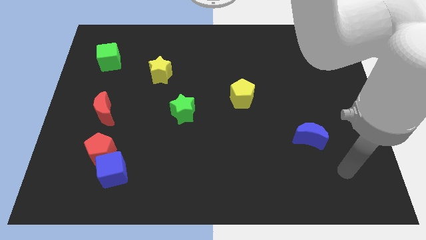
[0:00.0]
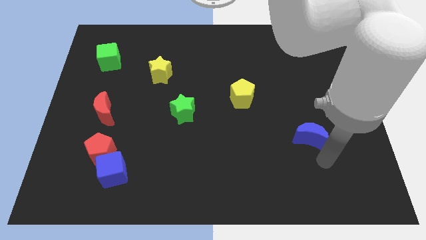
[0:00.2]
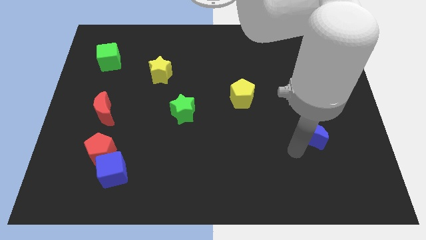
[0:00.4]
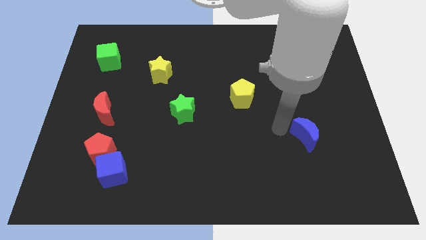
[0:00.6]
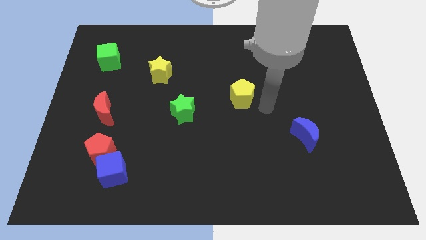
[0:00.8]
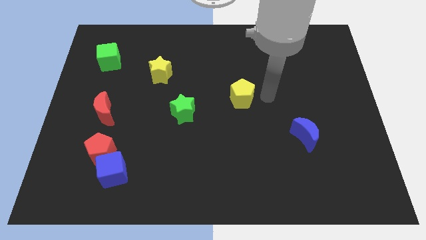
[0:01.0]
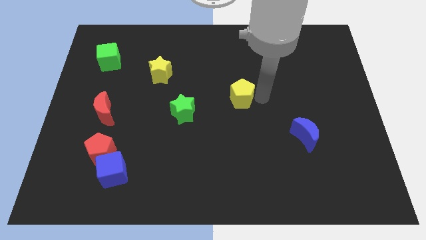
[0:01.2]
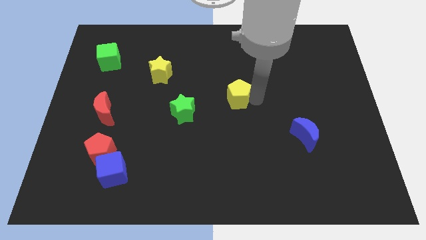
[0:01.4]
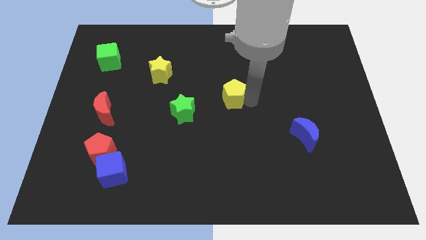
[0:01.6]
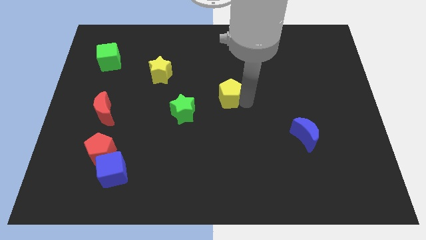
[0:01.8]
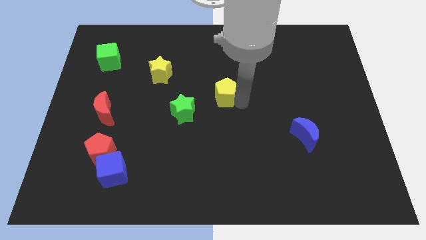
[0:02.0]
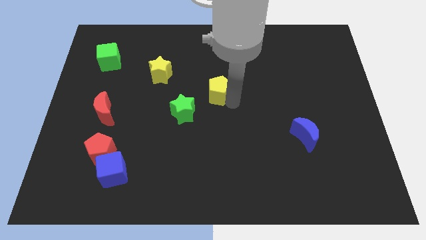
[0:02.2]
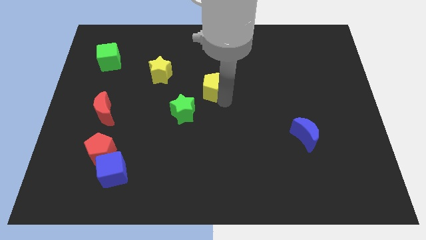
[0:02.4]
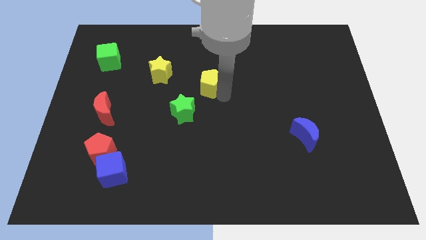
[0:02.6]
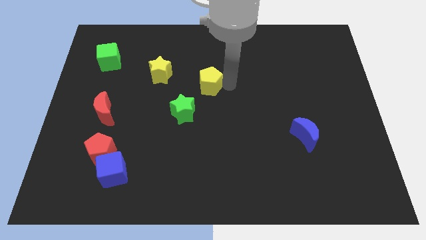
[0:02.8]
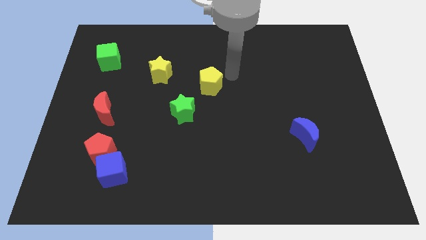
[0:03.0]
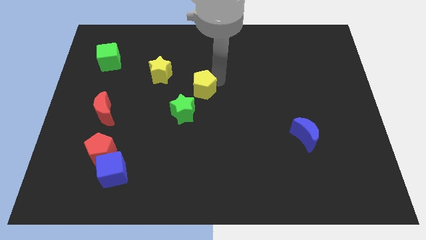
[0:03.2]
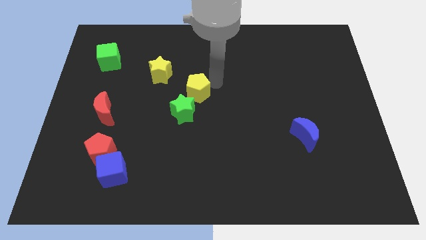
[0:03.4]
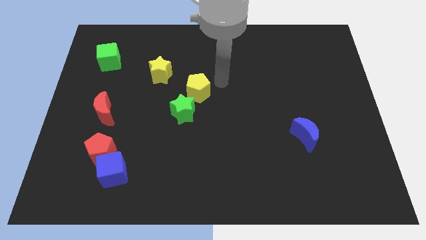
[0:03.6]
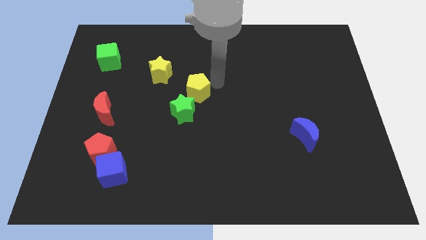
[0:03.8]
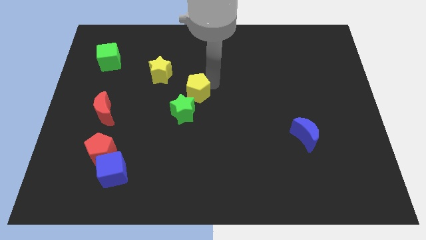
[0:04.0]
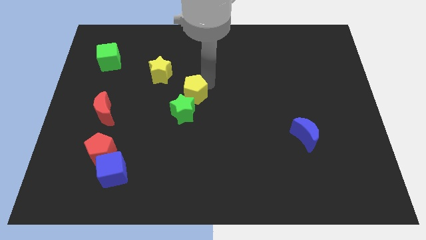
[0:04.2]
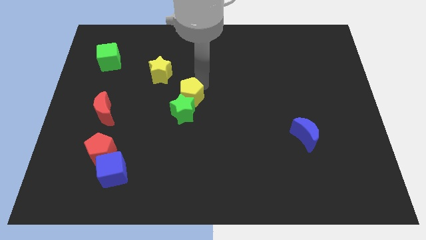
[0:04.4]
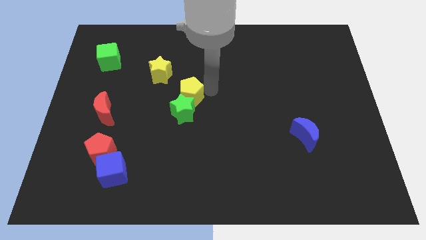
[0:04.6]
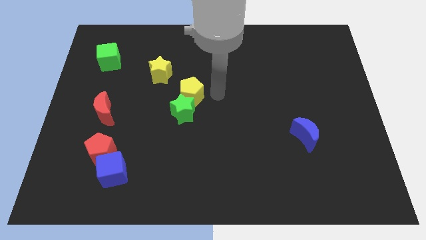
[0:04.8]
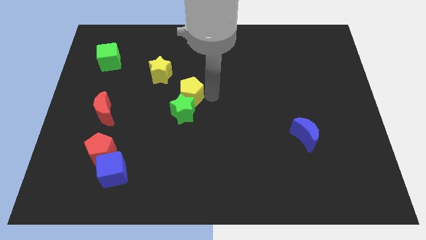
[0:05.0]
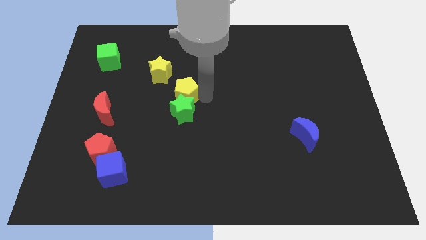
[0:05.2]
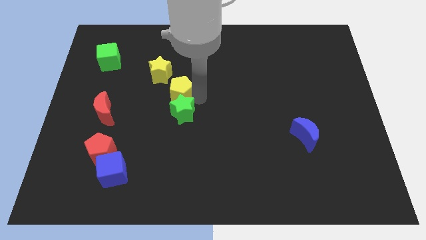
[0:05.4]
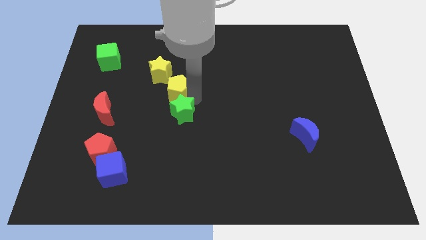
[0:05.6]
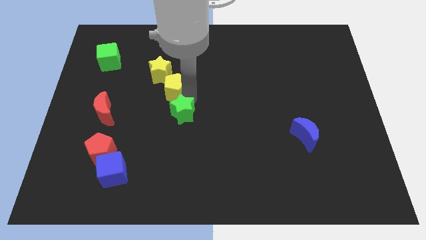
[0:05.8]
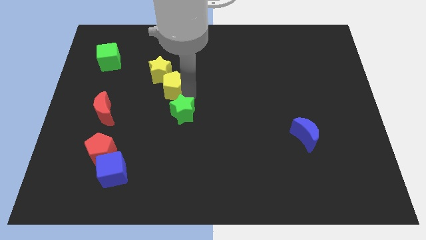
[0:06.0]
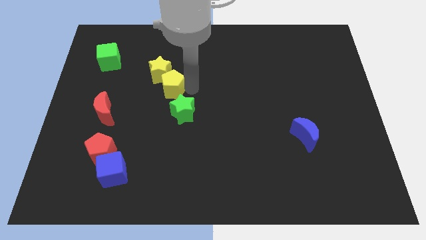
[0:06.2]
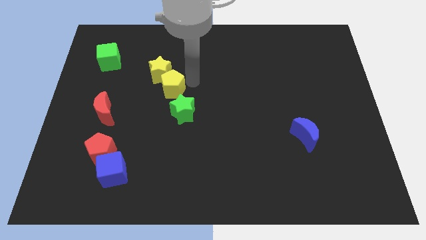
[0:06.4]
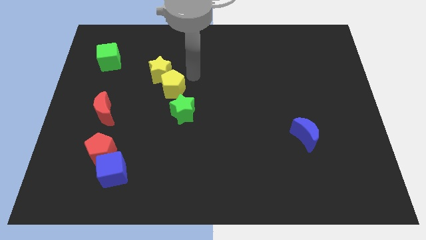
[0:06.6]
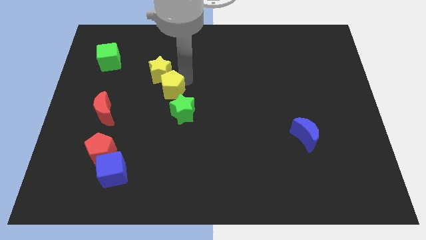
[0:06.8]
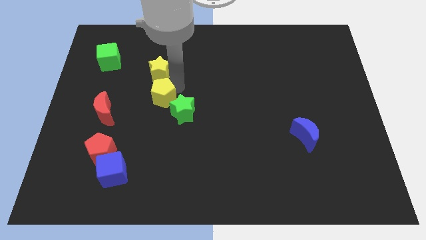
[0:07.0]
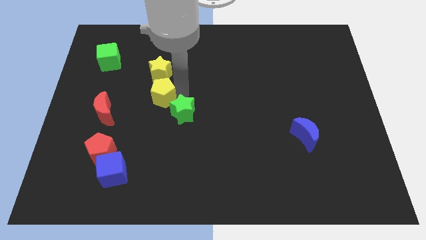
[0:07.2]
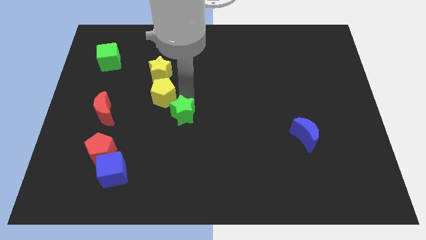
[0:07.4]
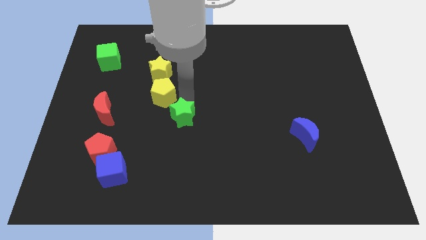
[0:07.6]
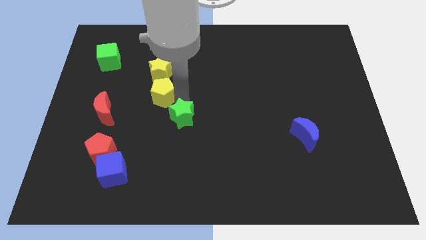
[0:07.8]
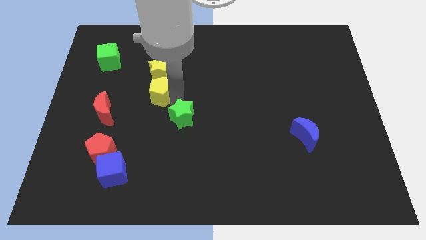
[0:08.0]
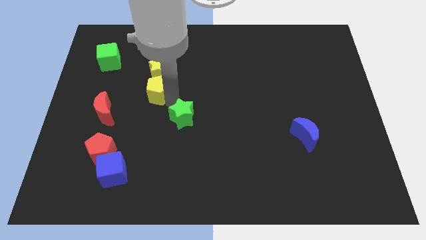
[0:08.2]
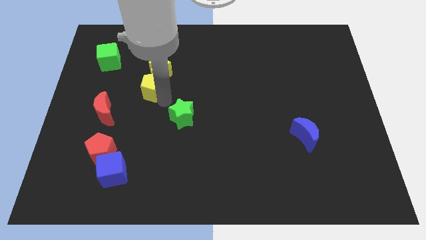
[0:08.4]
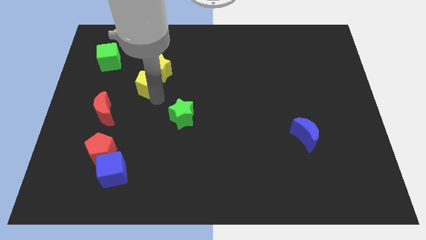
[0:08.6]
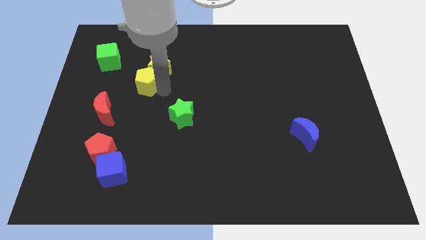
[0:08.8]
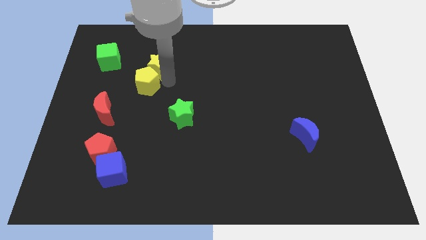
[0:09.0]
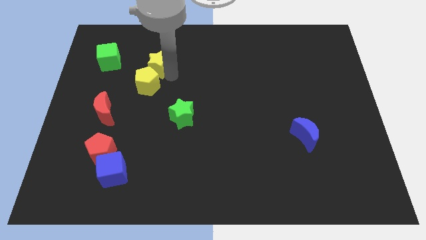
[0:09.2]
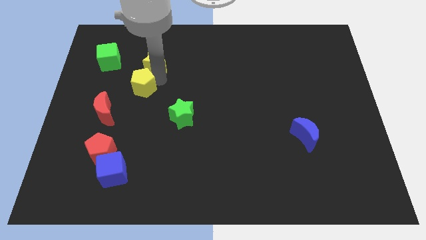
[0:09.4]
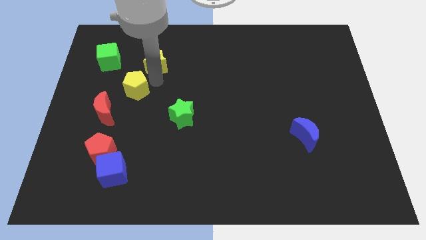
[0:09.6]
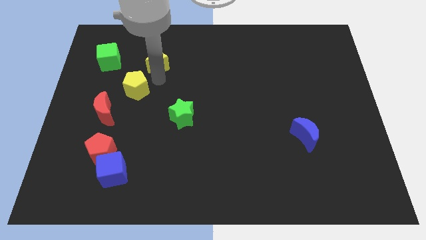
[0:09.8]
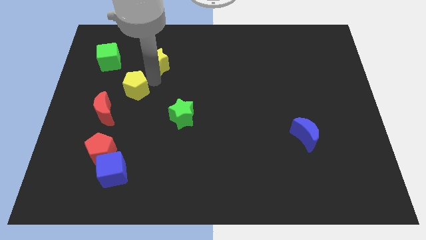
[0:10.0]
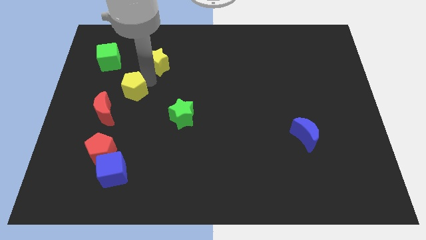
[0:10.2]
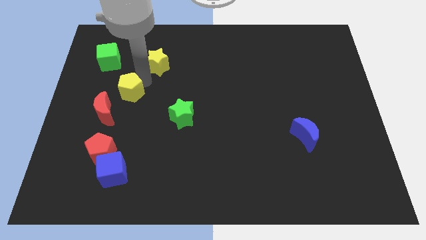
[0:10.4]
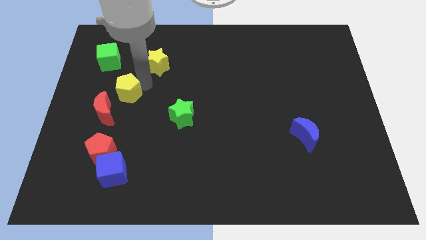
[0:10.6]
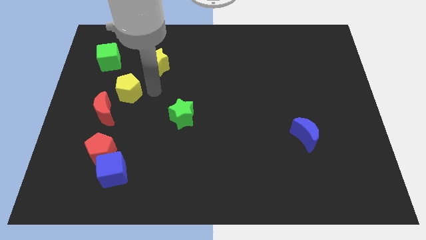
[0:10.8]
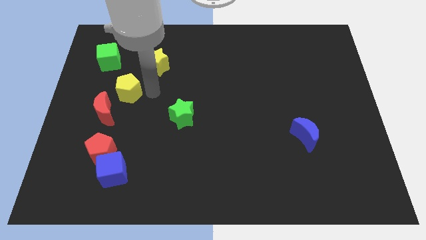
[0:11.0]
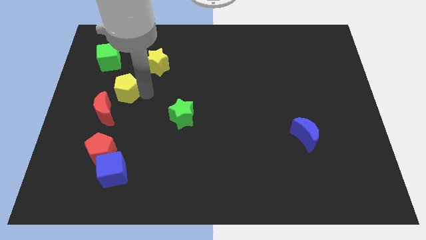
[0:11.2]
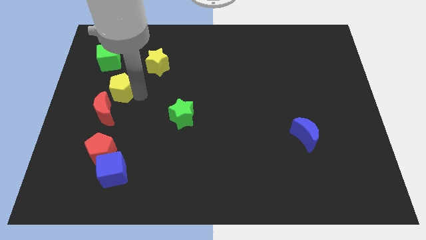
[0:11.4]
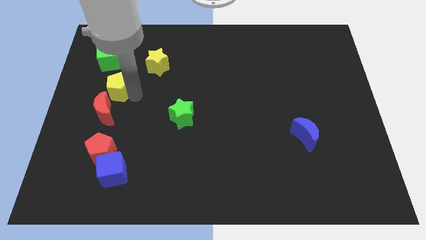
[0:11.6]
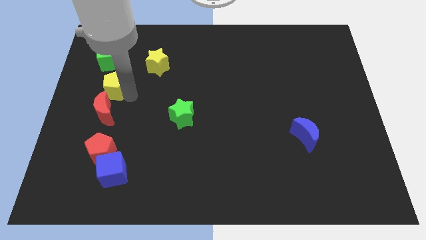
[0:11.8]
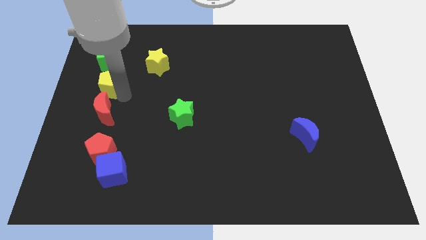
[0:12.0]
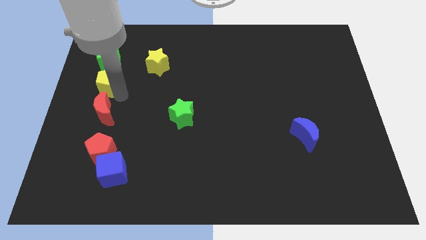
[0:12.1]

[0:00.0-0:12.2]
move the yellow pentagon to the center left
